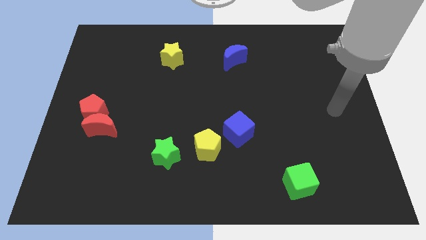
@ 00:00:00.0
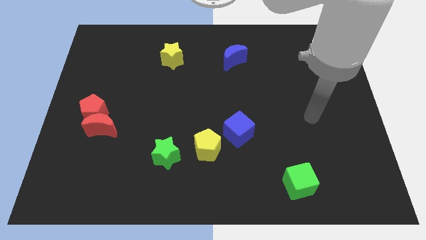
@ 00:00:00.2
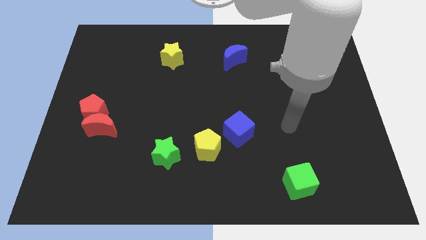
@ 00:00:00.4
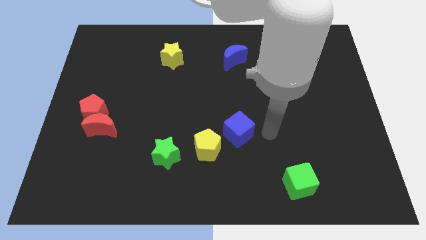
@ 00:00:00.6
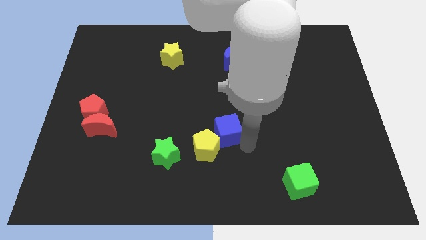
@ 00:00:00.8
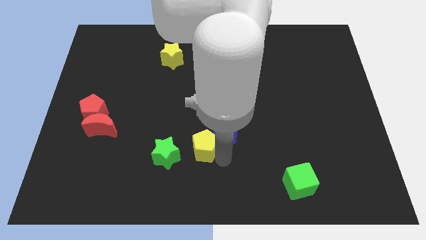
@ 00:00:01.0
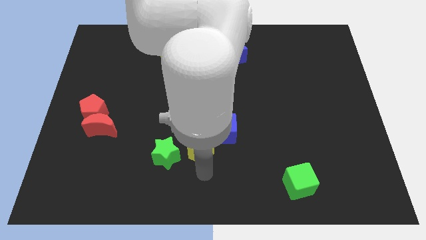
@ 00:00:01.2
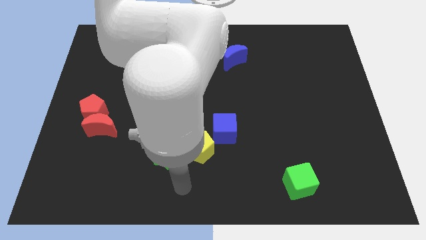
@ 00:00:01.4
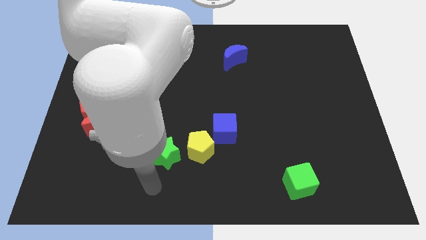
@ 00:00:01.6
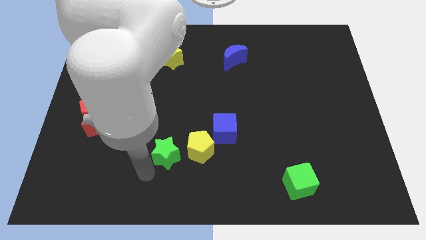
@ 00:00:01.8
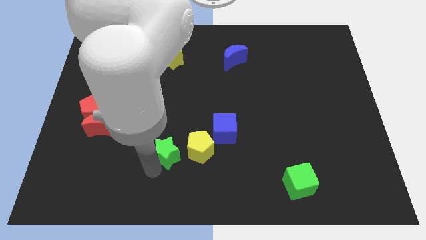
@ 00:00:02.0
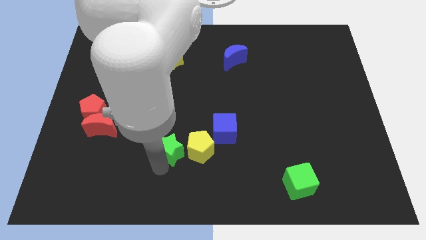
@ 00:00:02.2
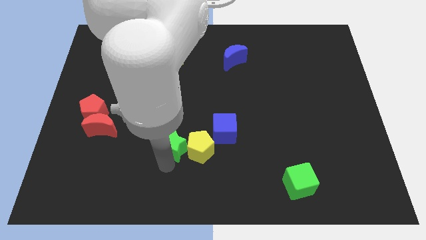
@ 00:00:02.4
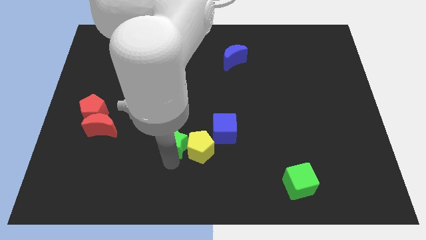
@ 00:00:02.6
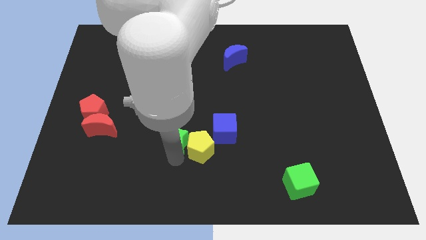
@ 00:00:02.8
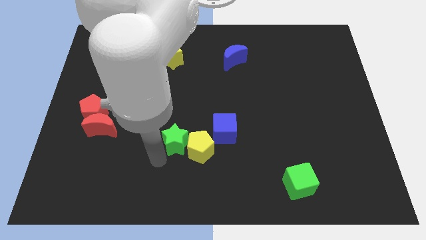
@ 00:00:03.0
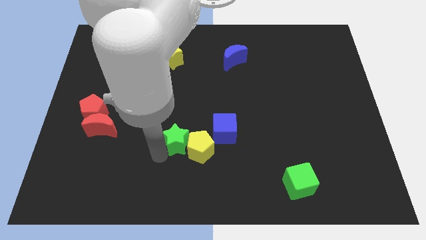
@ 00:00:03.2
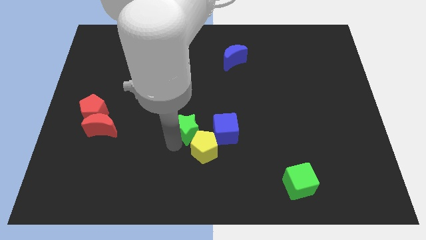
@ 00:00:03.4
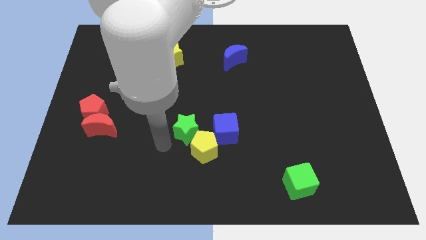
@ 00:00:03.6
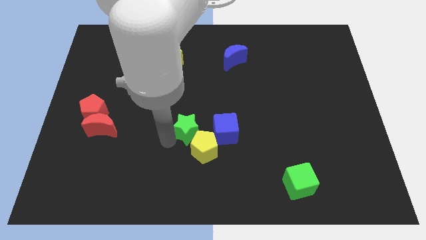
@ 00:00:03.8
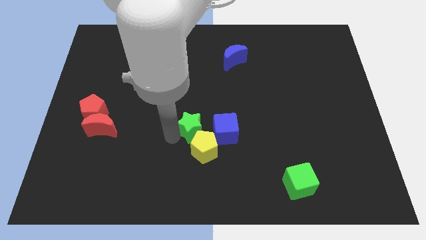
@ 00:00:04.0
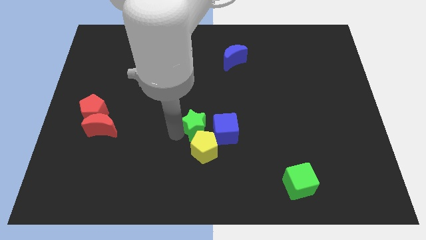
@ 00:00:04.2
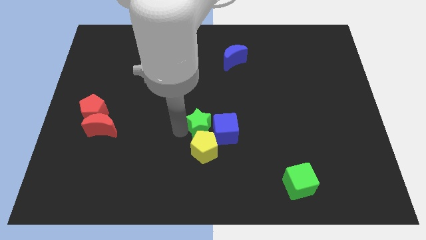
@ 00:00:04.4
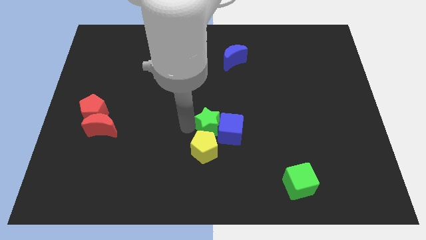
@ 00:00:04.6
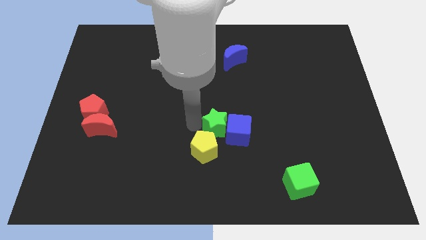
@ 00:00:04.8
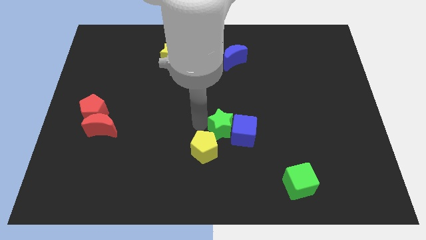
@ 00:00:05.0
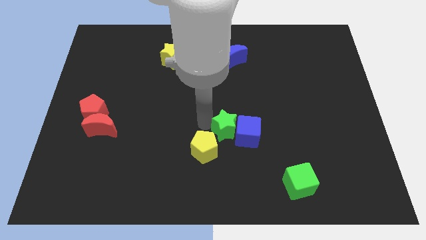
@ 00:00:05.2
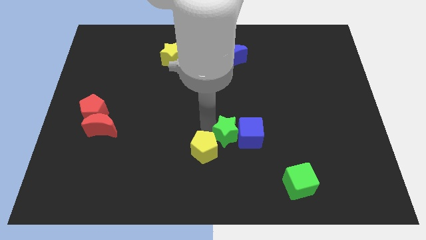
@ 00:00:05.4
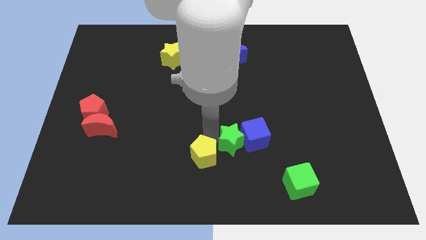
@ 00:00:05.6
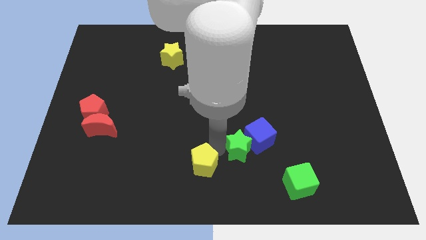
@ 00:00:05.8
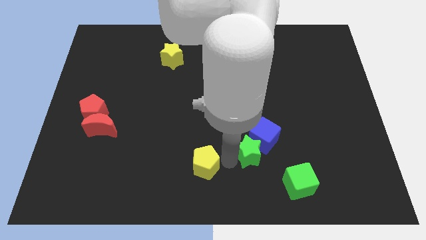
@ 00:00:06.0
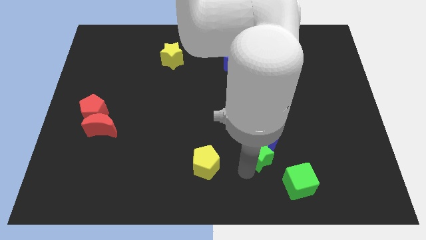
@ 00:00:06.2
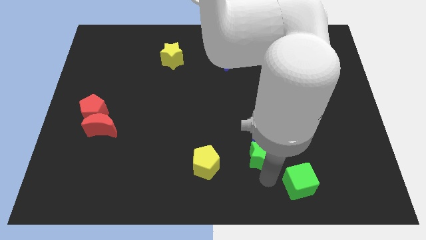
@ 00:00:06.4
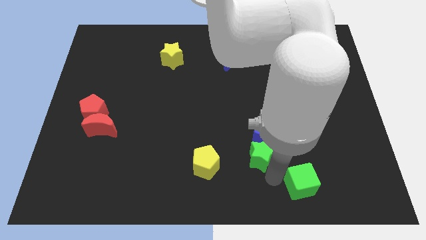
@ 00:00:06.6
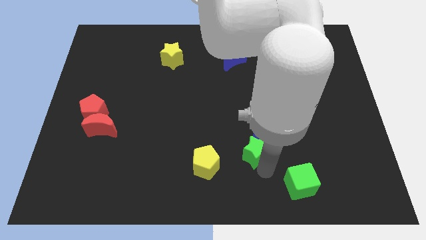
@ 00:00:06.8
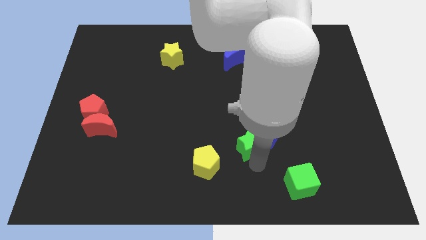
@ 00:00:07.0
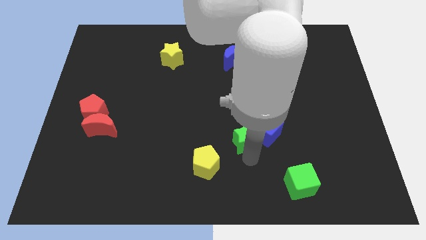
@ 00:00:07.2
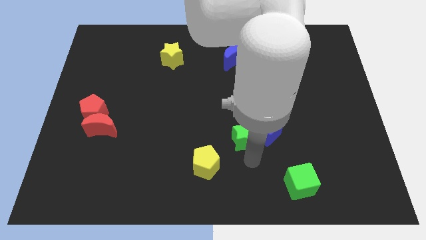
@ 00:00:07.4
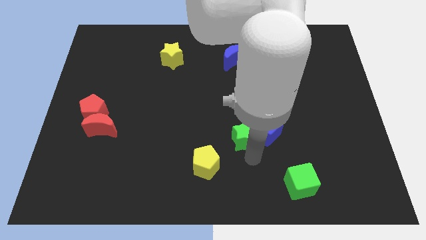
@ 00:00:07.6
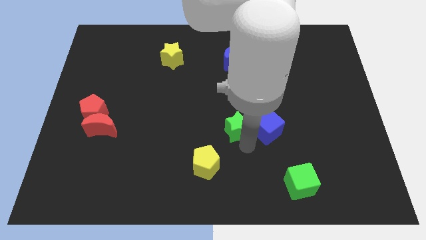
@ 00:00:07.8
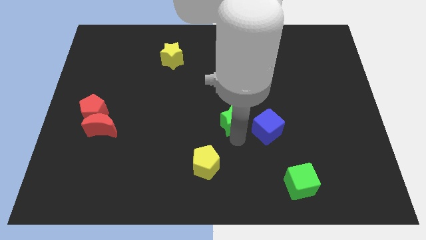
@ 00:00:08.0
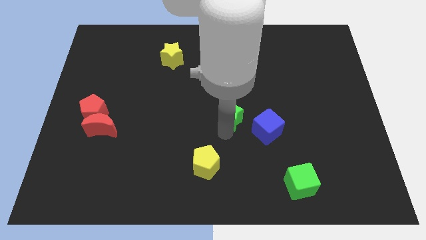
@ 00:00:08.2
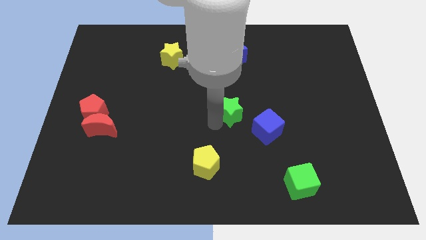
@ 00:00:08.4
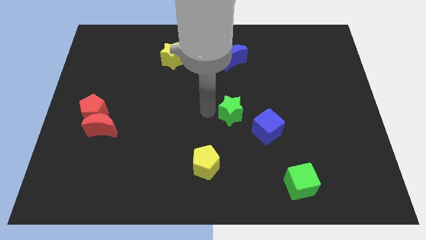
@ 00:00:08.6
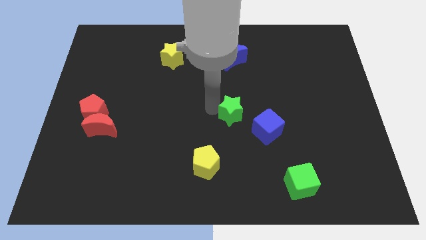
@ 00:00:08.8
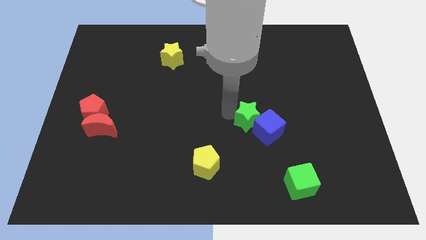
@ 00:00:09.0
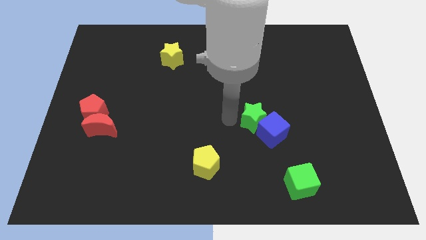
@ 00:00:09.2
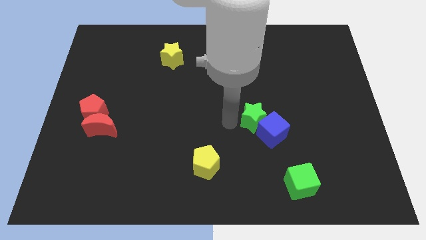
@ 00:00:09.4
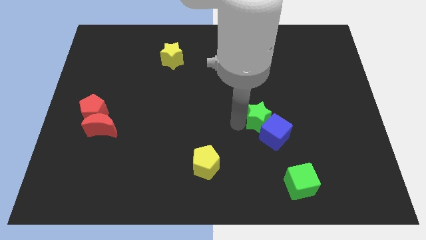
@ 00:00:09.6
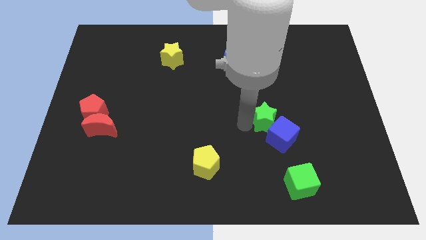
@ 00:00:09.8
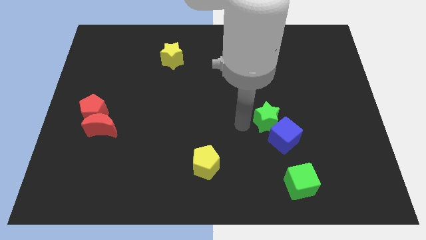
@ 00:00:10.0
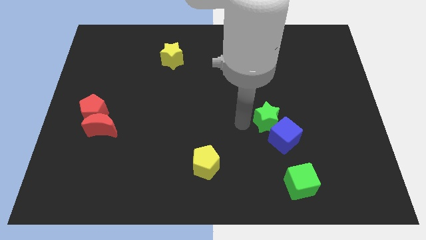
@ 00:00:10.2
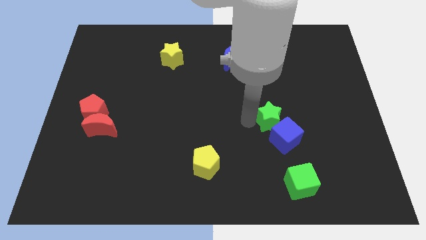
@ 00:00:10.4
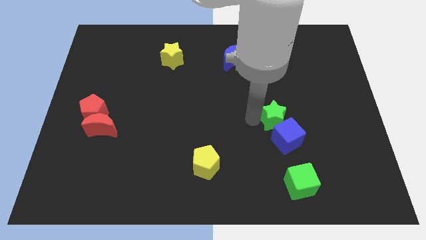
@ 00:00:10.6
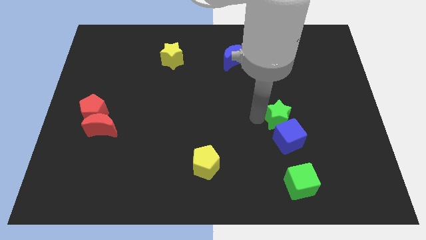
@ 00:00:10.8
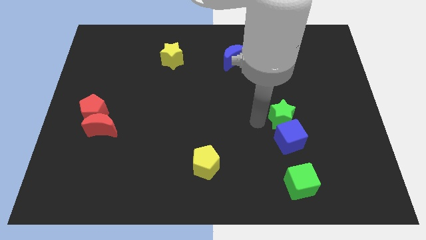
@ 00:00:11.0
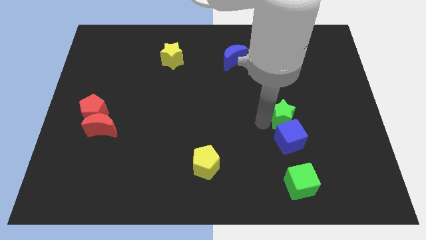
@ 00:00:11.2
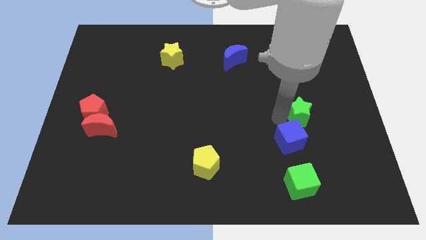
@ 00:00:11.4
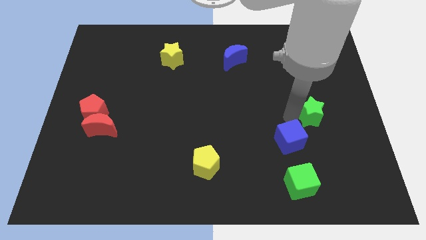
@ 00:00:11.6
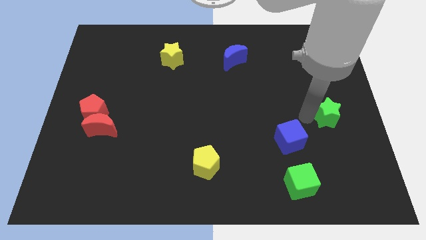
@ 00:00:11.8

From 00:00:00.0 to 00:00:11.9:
push the green star to the right side of the board
